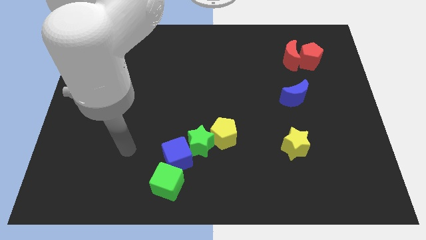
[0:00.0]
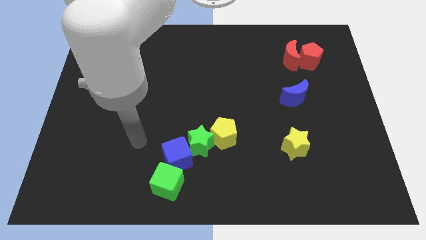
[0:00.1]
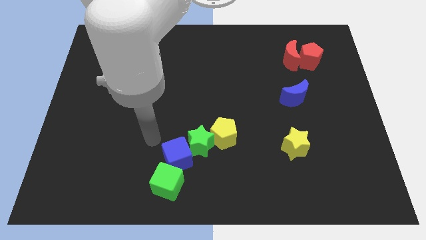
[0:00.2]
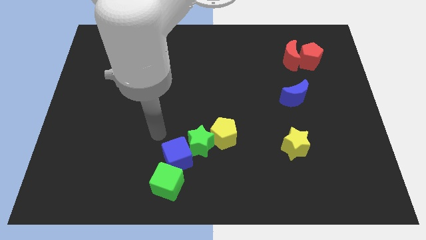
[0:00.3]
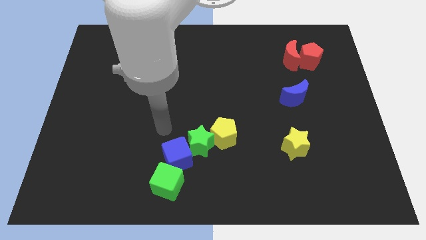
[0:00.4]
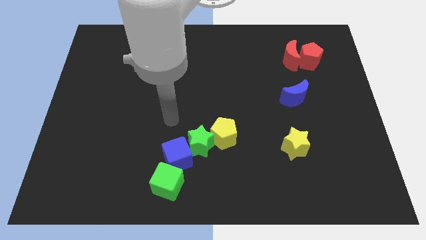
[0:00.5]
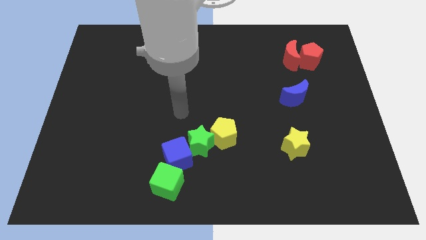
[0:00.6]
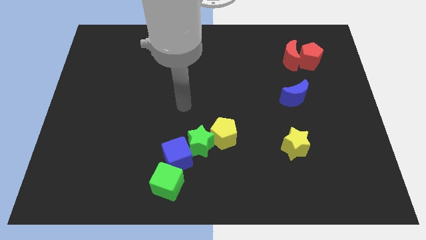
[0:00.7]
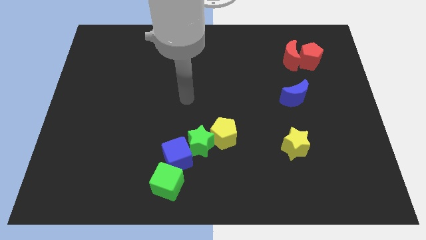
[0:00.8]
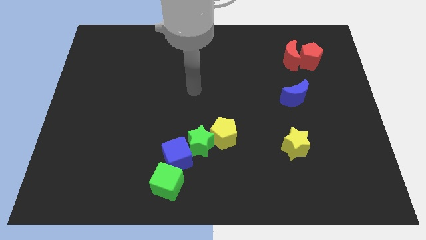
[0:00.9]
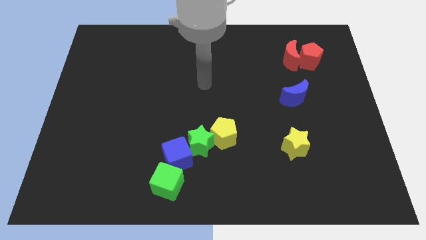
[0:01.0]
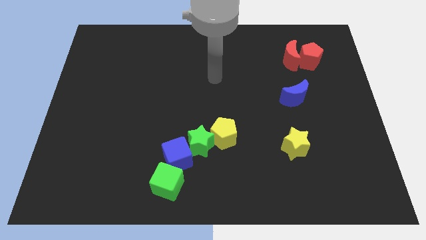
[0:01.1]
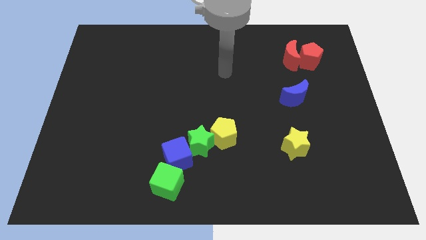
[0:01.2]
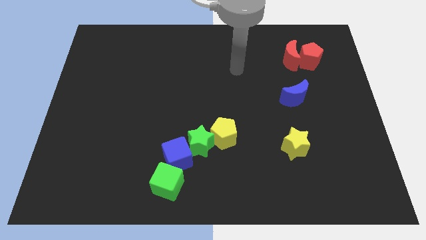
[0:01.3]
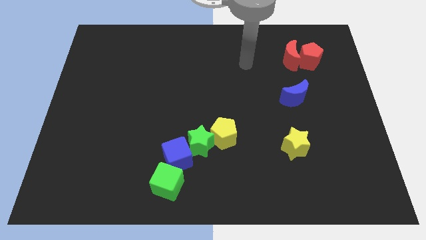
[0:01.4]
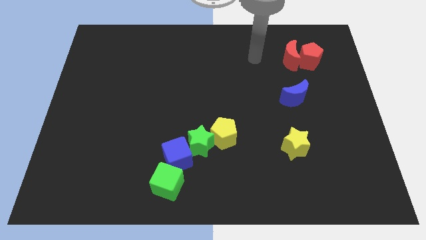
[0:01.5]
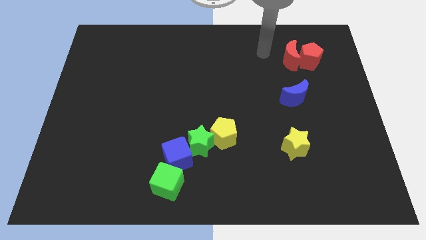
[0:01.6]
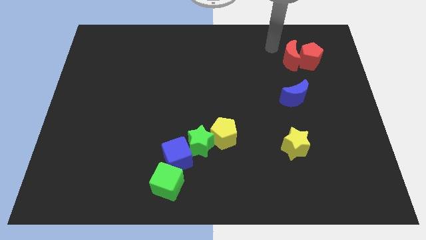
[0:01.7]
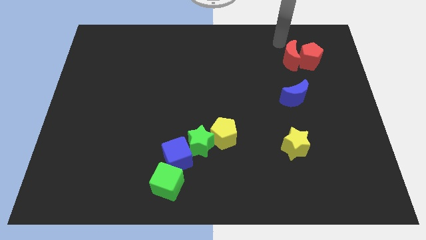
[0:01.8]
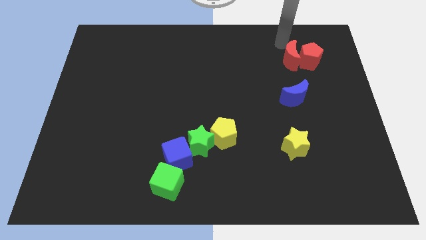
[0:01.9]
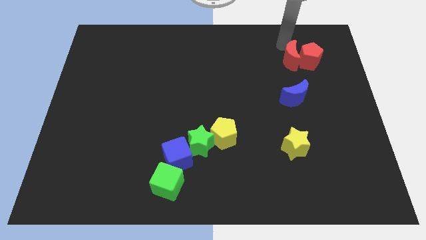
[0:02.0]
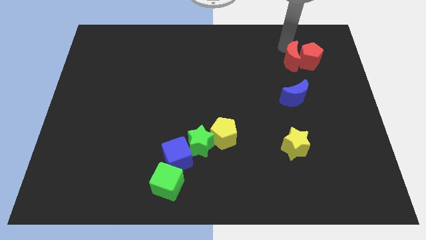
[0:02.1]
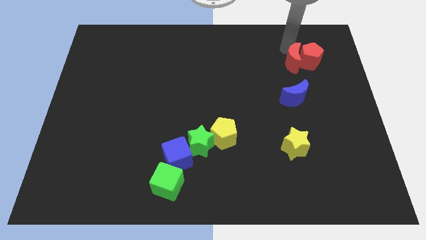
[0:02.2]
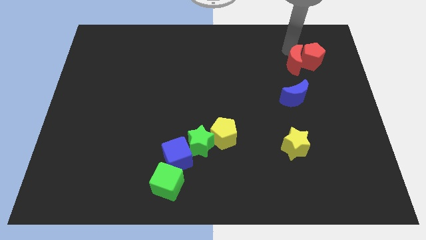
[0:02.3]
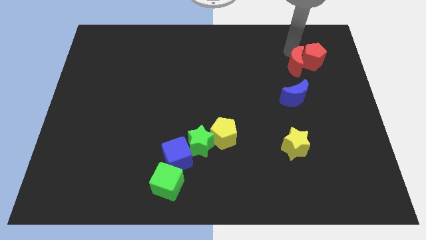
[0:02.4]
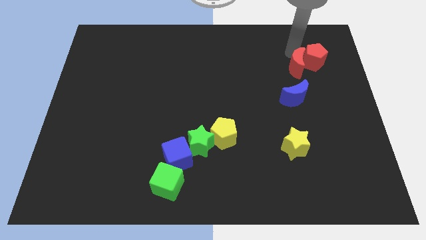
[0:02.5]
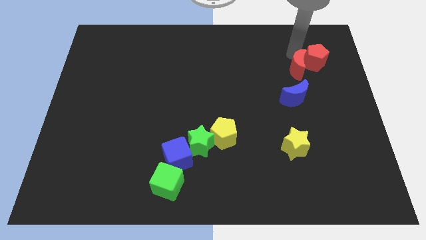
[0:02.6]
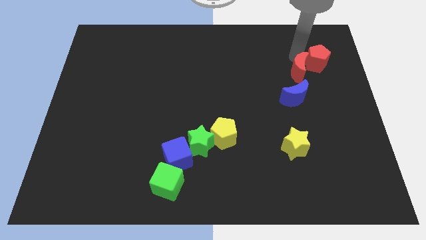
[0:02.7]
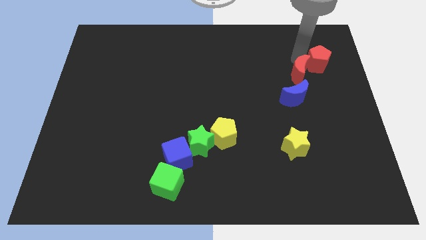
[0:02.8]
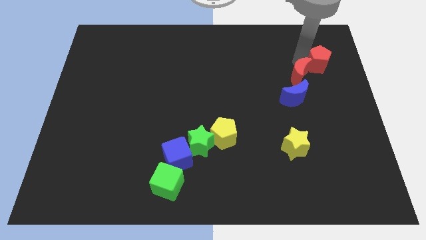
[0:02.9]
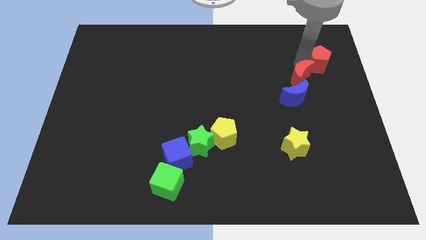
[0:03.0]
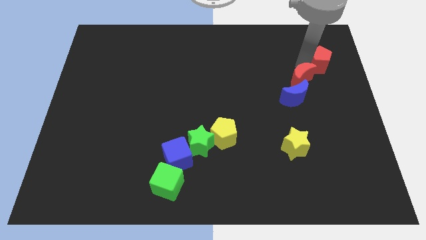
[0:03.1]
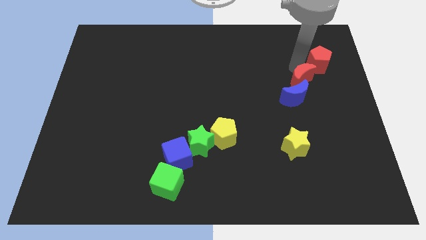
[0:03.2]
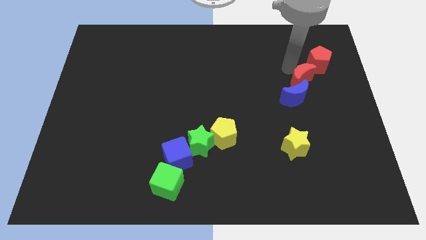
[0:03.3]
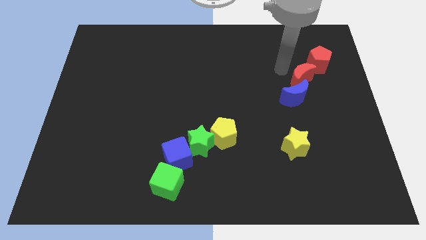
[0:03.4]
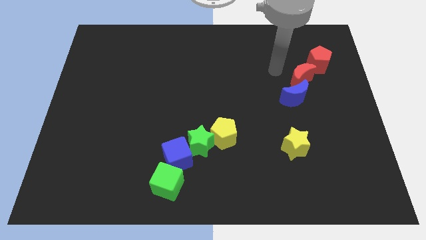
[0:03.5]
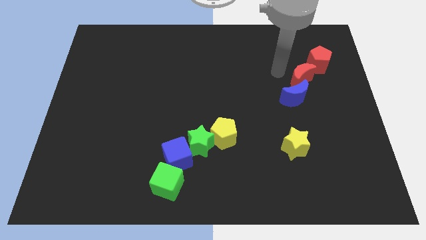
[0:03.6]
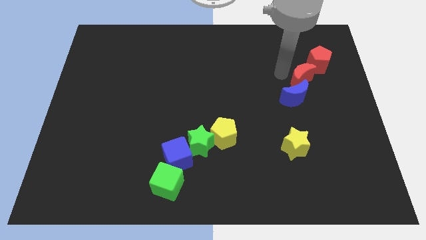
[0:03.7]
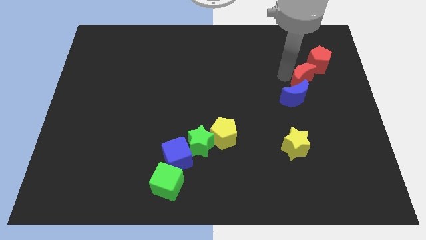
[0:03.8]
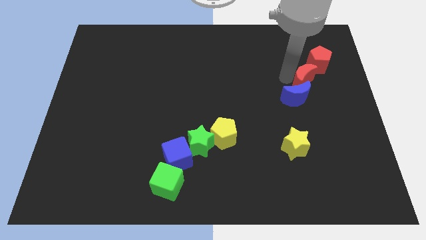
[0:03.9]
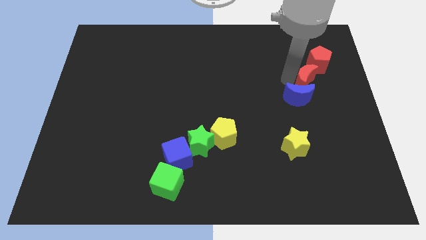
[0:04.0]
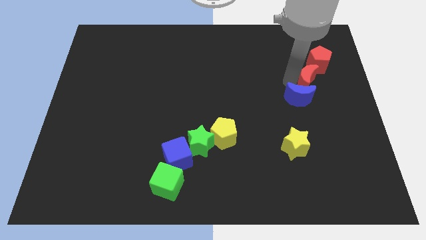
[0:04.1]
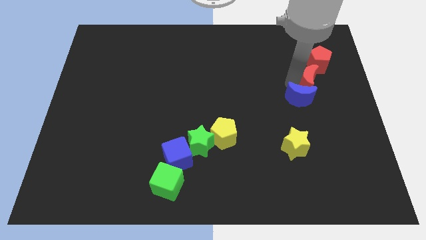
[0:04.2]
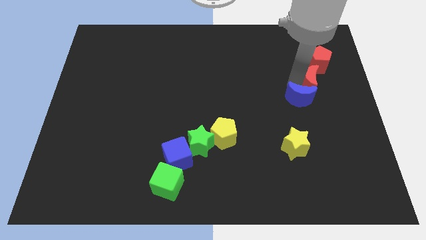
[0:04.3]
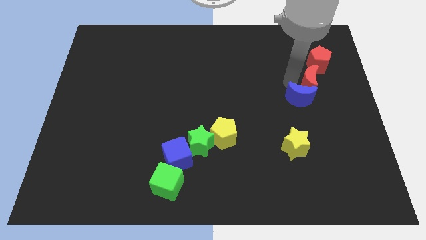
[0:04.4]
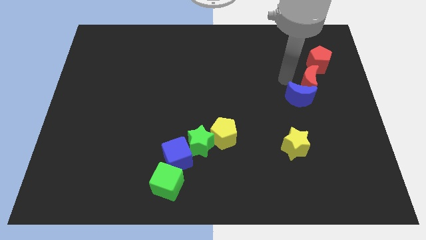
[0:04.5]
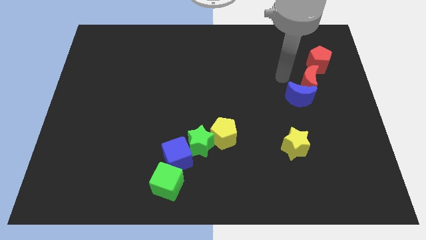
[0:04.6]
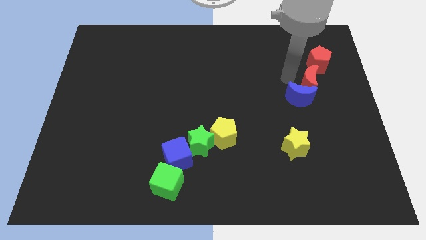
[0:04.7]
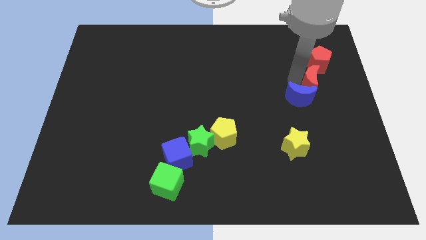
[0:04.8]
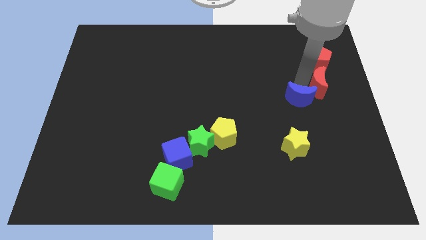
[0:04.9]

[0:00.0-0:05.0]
push the red moon to the right side of the board

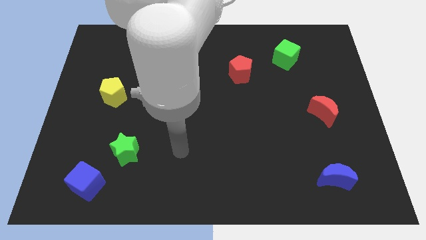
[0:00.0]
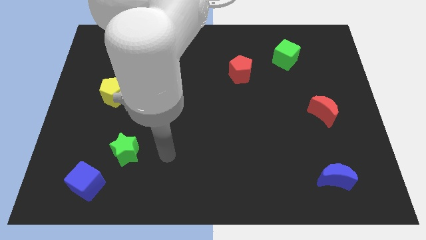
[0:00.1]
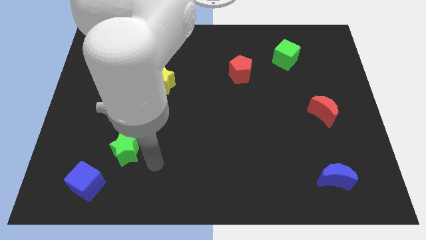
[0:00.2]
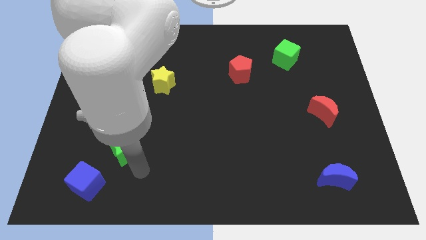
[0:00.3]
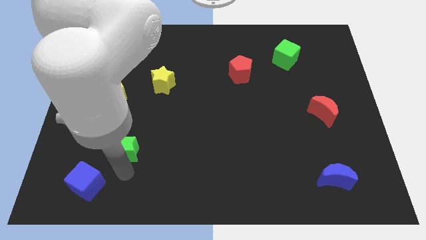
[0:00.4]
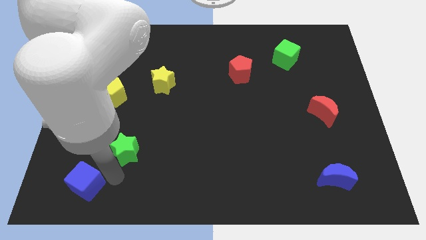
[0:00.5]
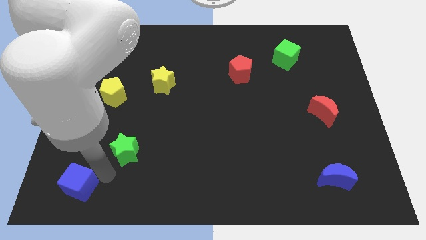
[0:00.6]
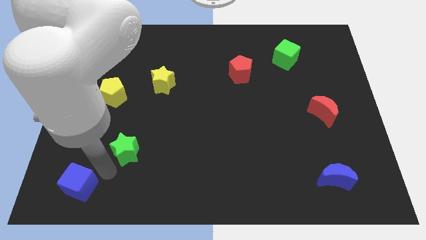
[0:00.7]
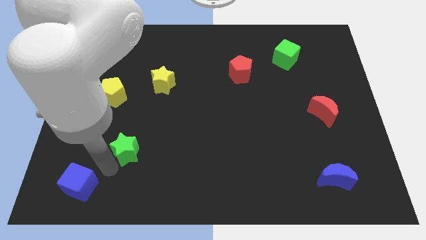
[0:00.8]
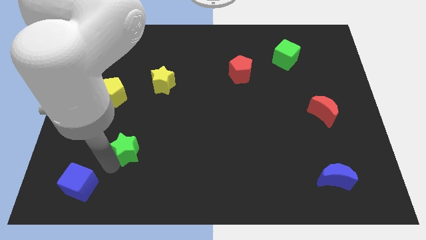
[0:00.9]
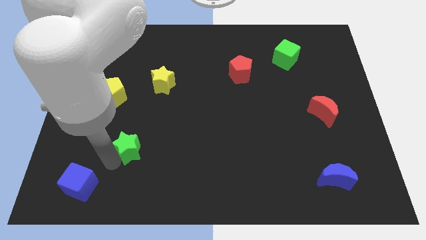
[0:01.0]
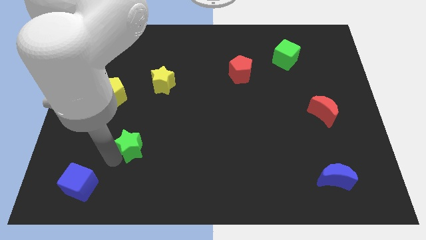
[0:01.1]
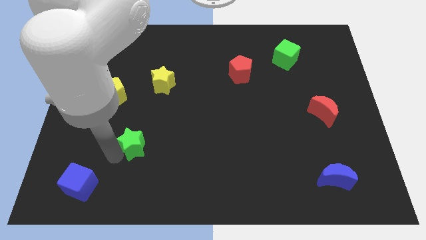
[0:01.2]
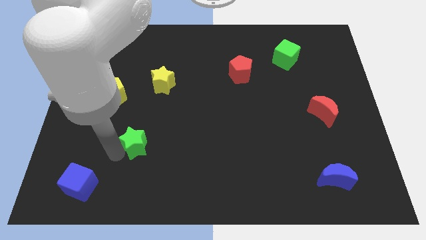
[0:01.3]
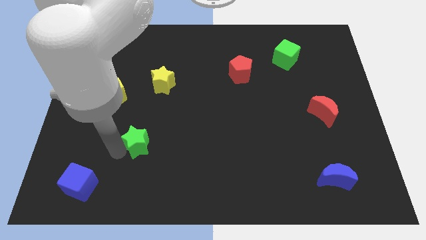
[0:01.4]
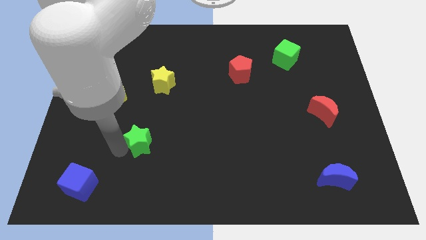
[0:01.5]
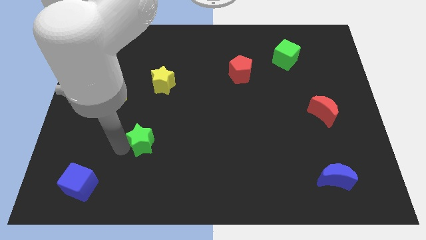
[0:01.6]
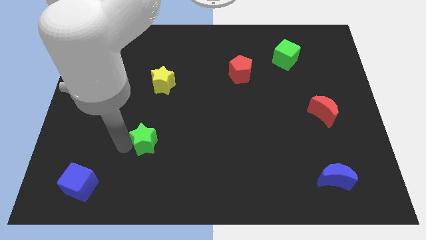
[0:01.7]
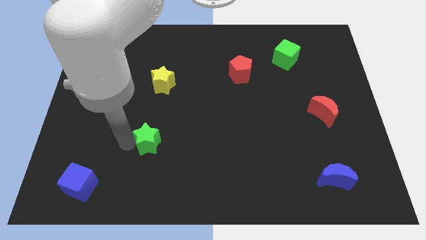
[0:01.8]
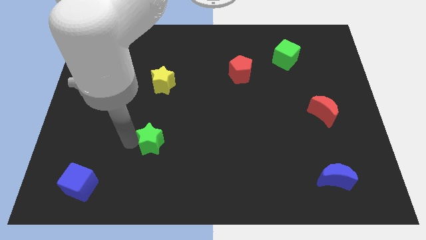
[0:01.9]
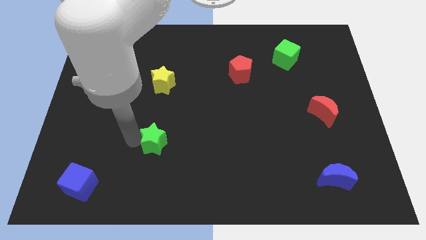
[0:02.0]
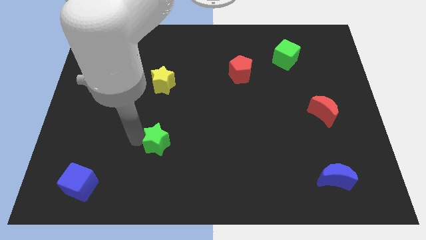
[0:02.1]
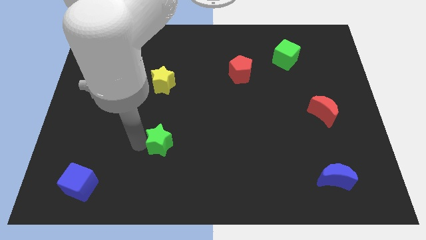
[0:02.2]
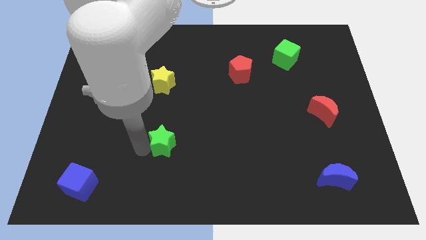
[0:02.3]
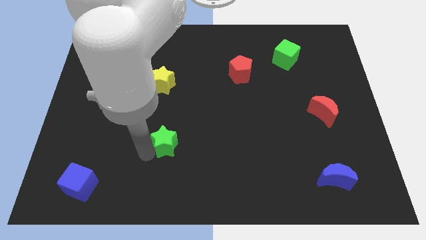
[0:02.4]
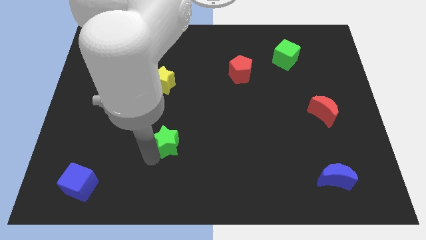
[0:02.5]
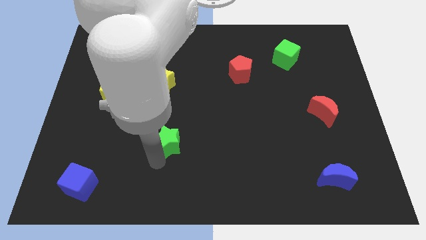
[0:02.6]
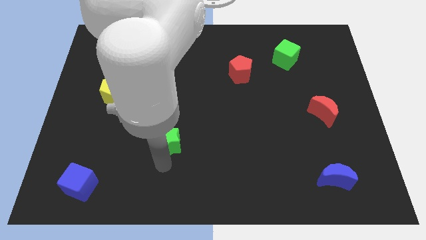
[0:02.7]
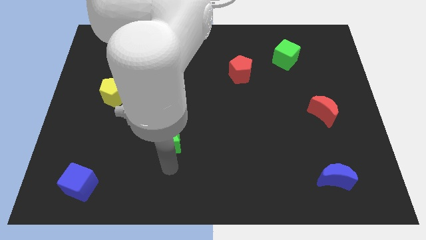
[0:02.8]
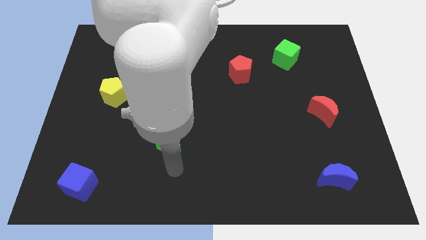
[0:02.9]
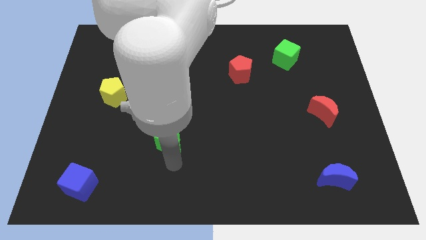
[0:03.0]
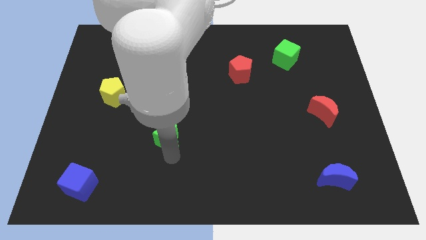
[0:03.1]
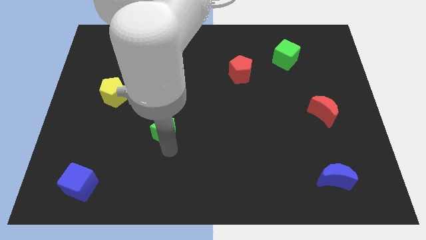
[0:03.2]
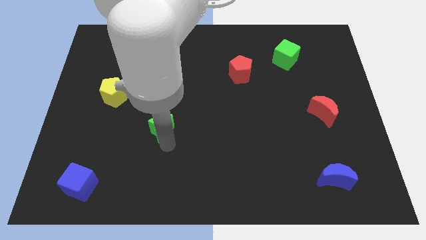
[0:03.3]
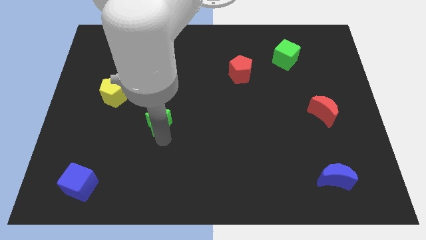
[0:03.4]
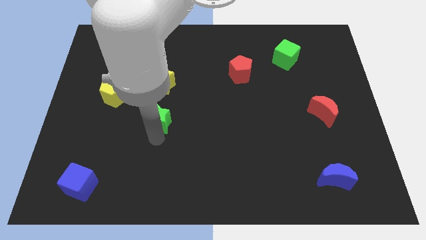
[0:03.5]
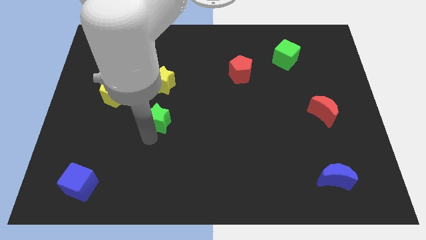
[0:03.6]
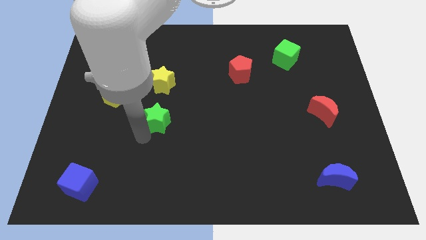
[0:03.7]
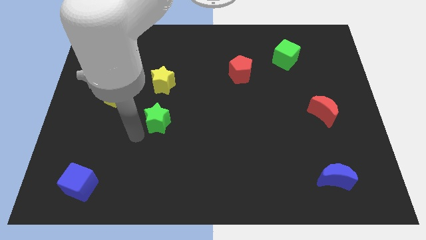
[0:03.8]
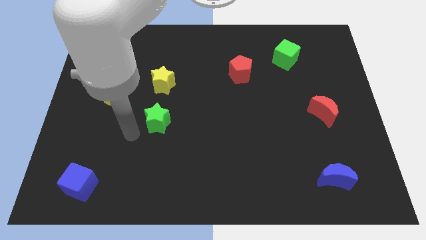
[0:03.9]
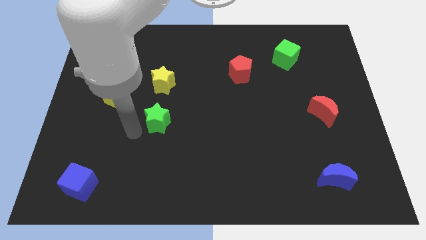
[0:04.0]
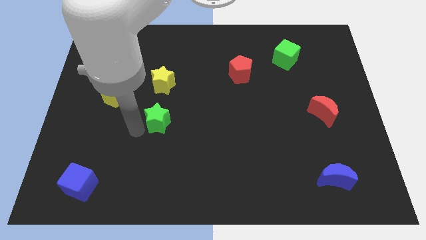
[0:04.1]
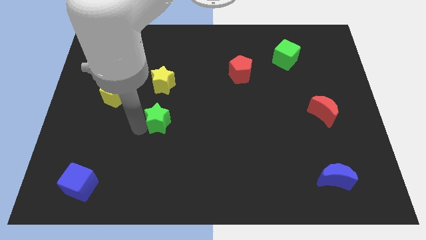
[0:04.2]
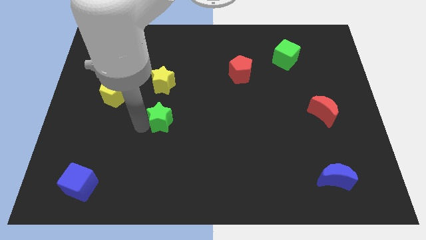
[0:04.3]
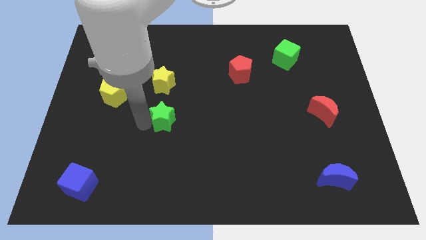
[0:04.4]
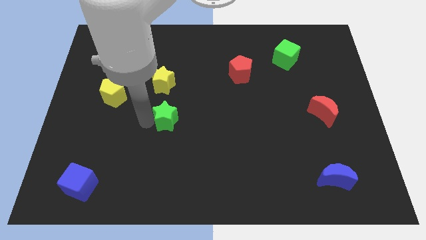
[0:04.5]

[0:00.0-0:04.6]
push the green star to the middle of the board
